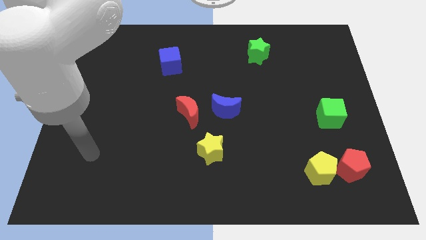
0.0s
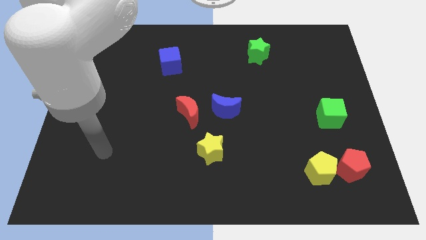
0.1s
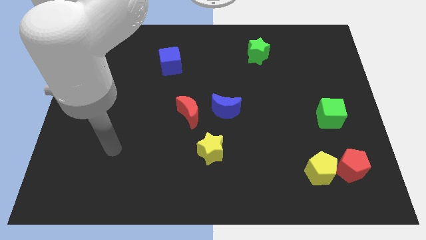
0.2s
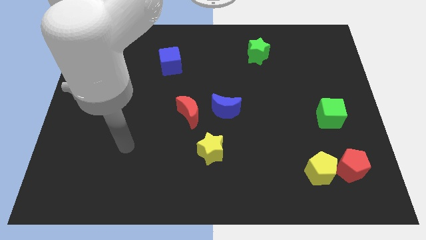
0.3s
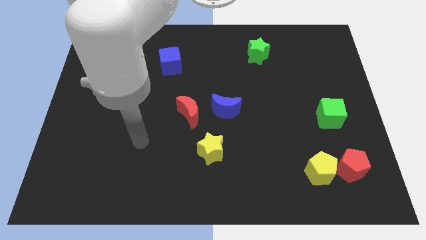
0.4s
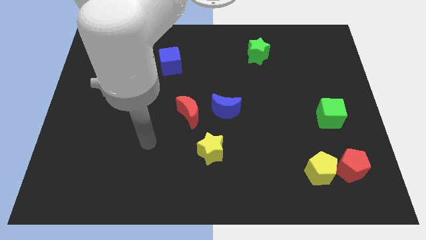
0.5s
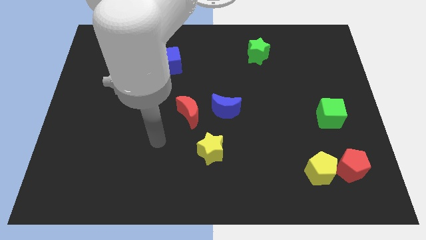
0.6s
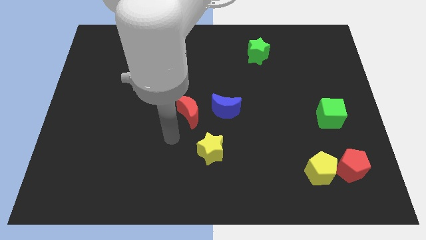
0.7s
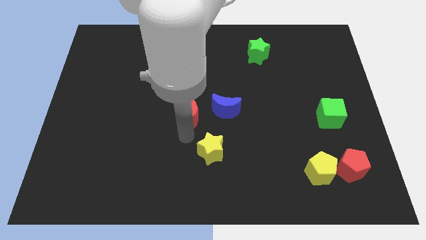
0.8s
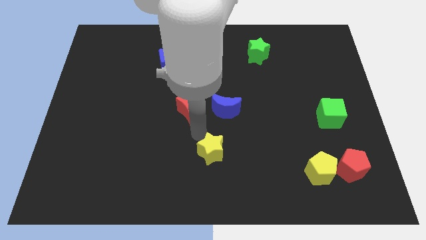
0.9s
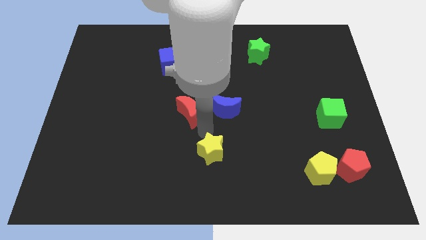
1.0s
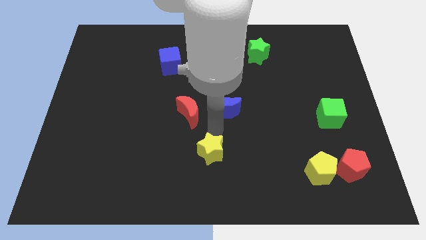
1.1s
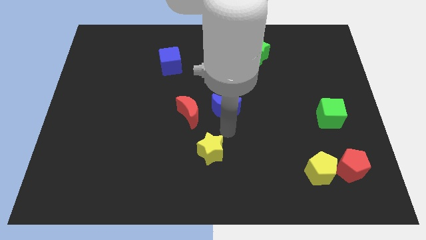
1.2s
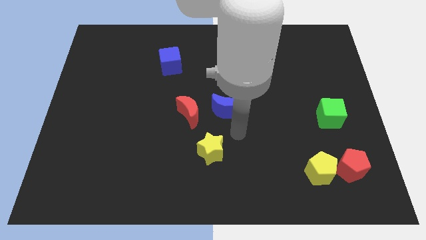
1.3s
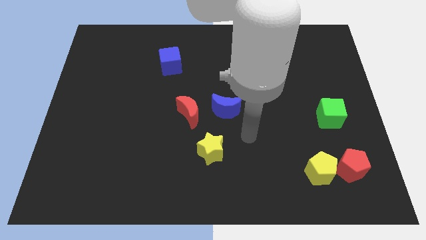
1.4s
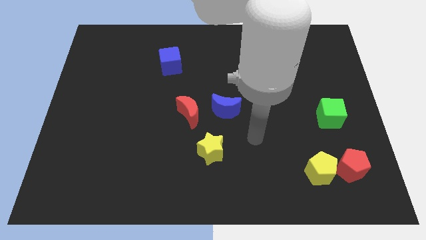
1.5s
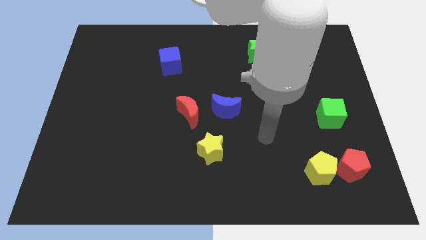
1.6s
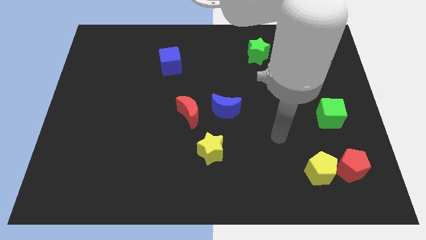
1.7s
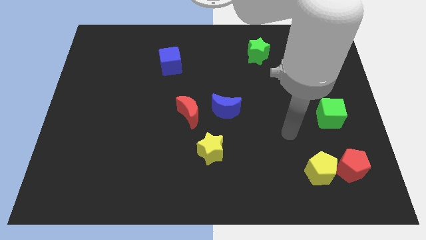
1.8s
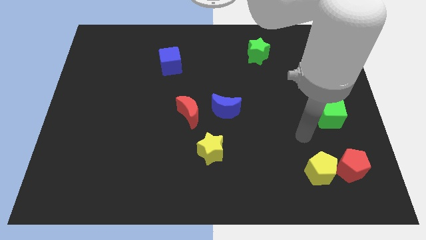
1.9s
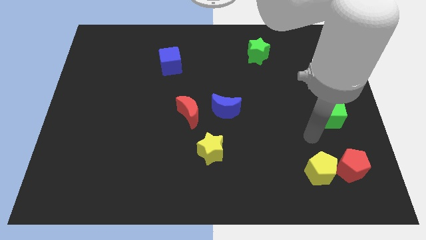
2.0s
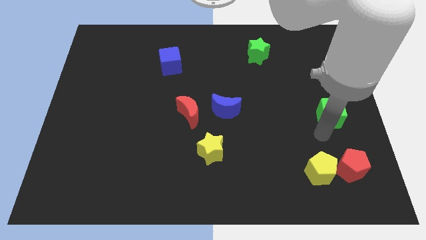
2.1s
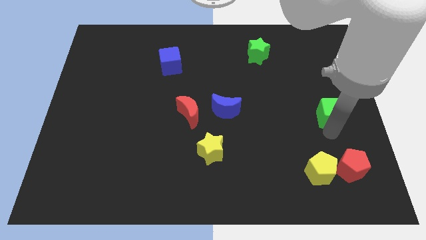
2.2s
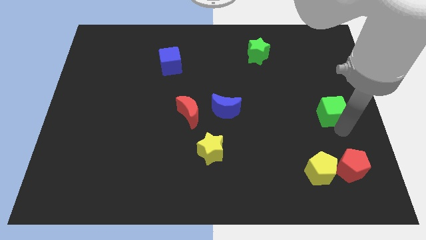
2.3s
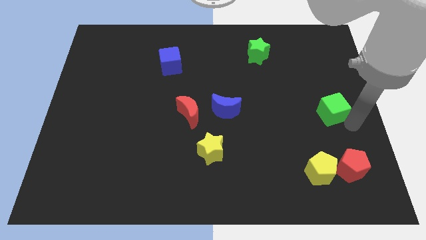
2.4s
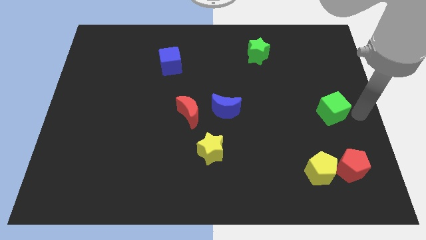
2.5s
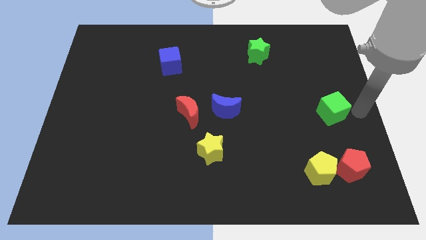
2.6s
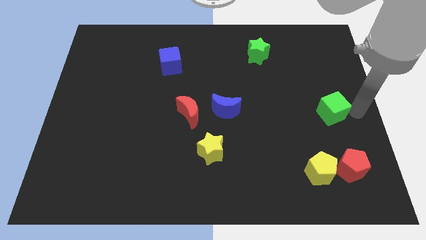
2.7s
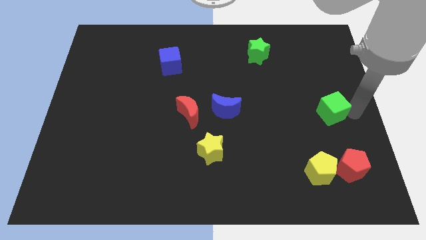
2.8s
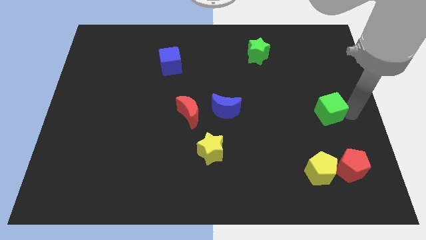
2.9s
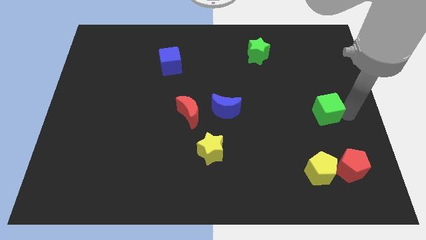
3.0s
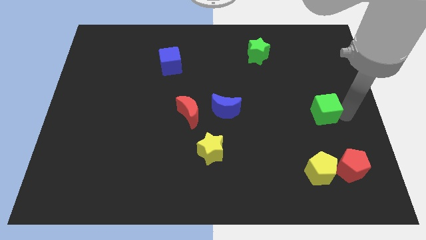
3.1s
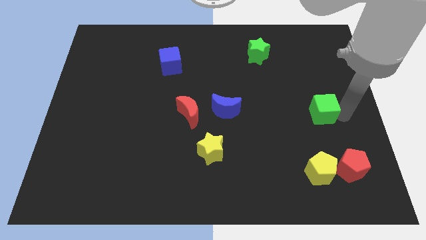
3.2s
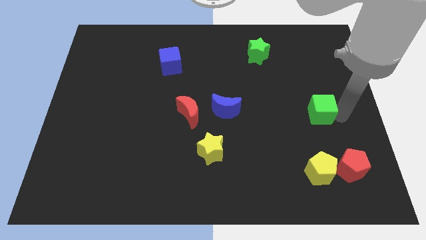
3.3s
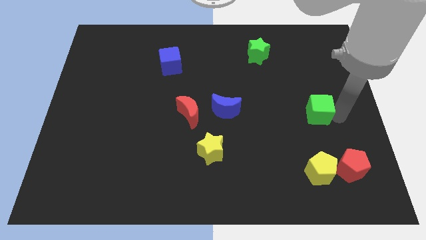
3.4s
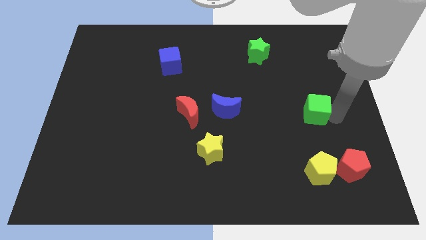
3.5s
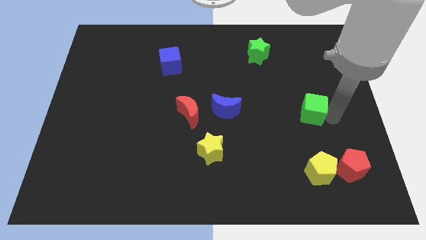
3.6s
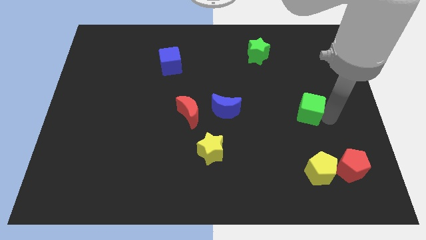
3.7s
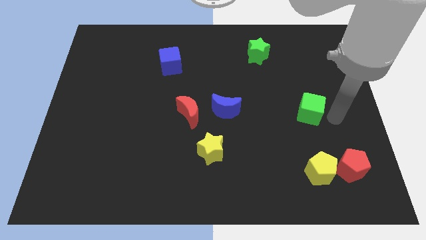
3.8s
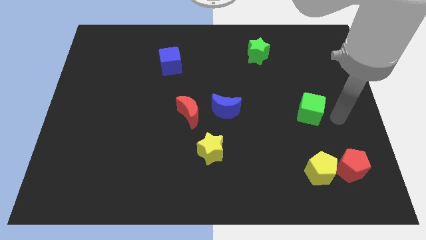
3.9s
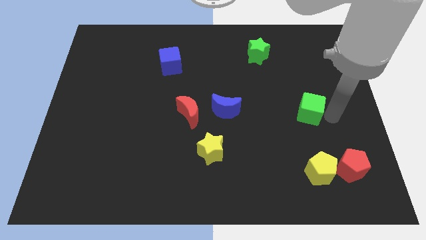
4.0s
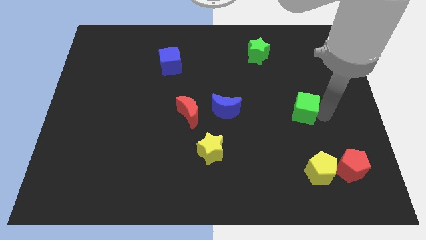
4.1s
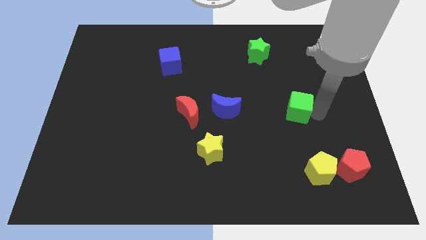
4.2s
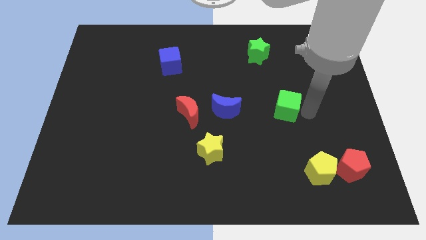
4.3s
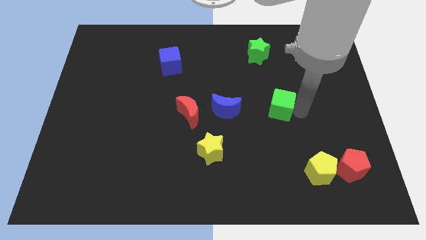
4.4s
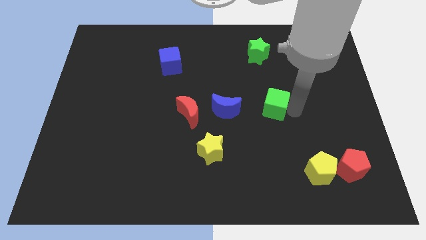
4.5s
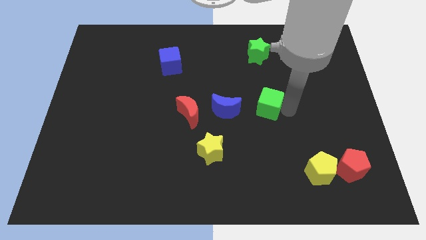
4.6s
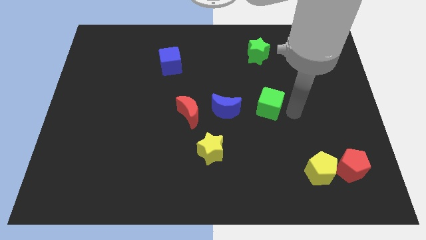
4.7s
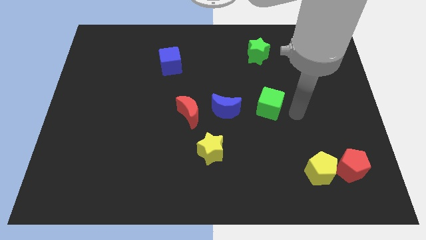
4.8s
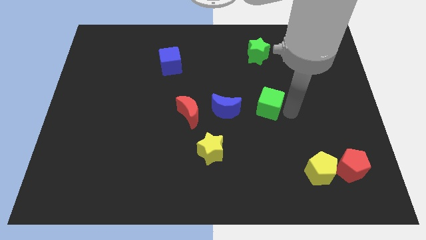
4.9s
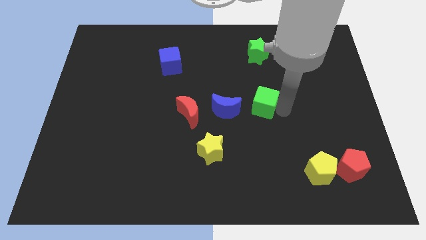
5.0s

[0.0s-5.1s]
slide the green cube to the middle

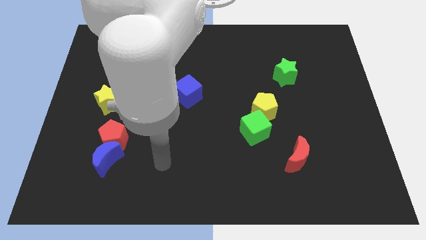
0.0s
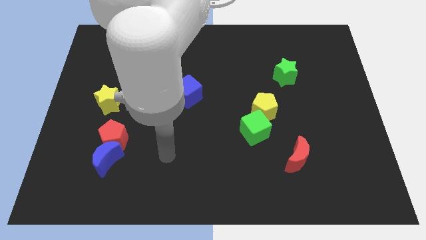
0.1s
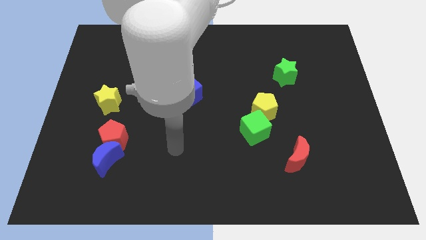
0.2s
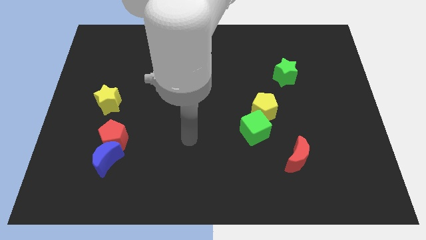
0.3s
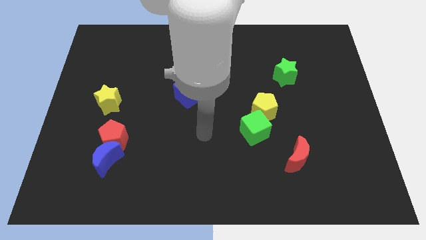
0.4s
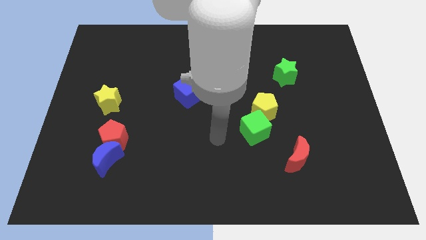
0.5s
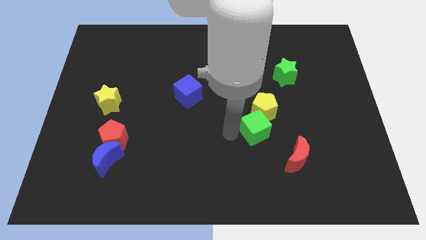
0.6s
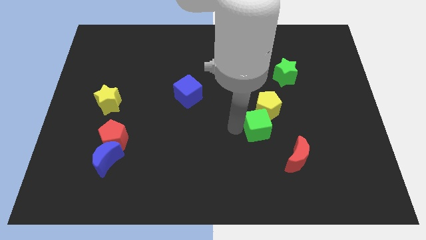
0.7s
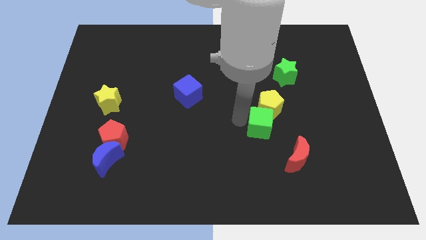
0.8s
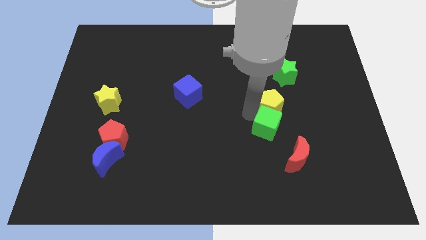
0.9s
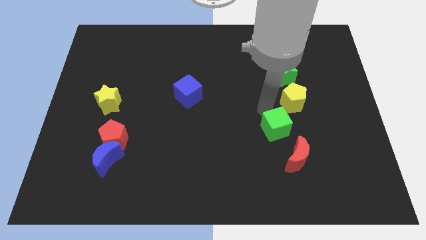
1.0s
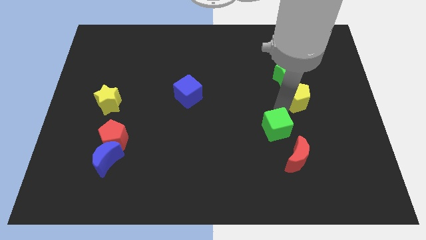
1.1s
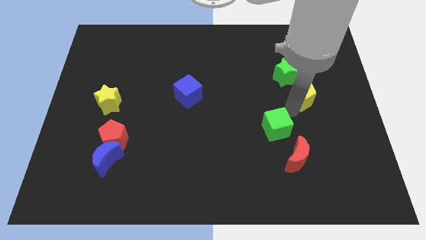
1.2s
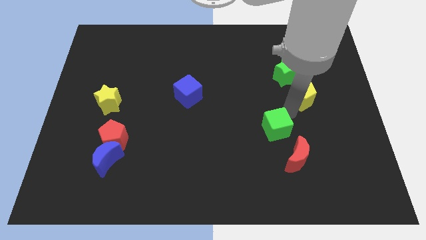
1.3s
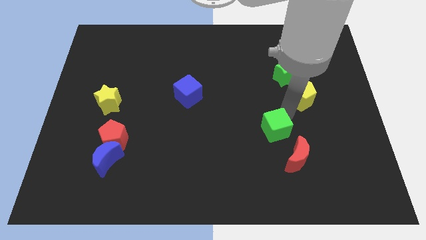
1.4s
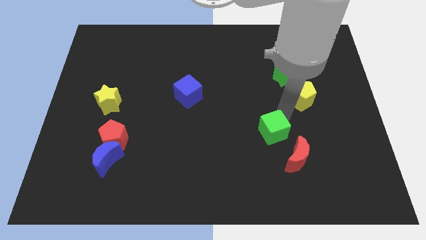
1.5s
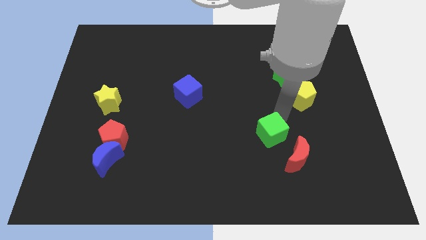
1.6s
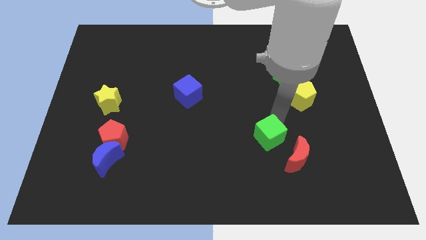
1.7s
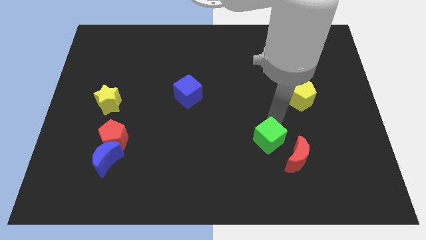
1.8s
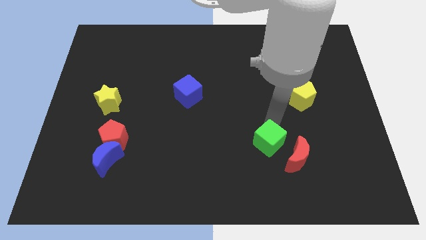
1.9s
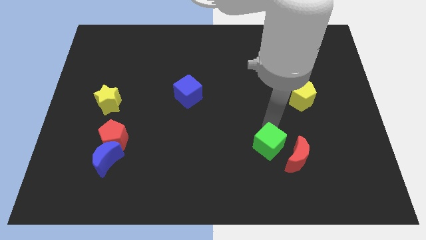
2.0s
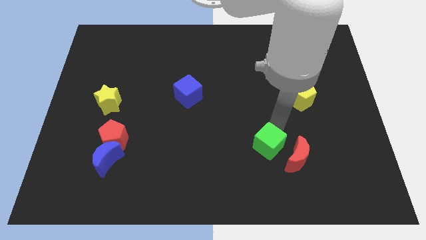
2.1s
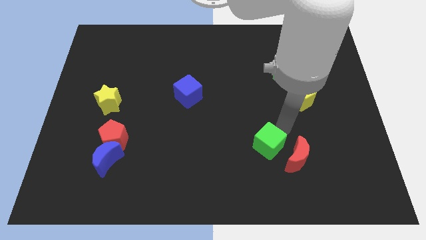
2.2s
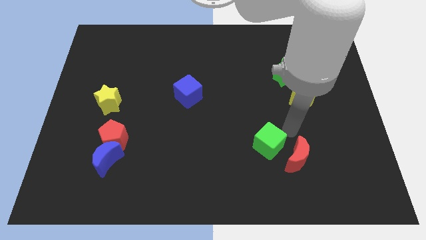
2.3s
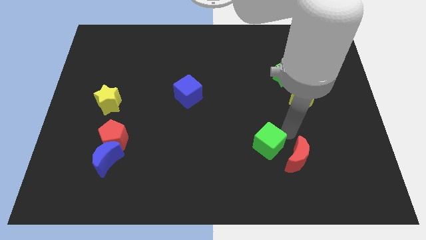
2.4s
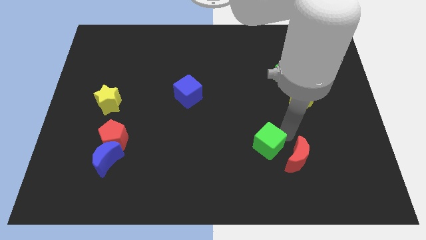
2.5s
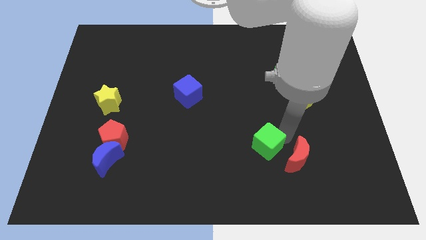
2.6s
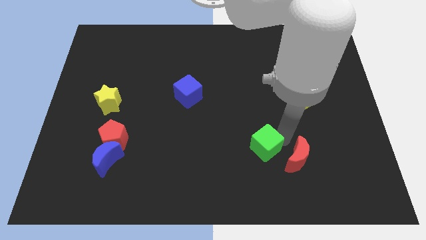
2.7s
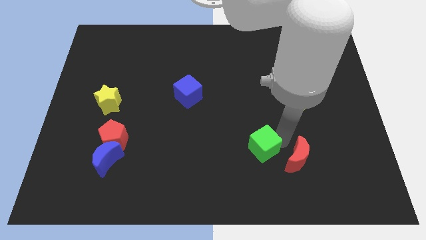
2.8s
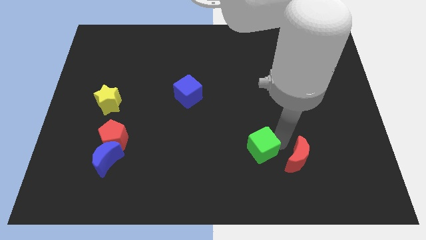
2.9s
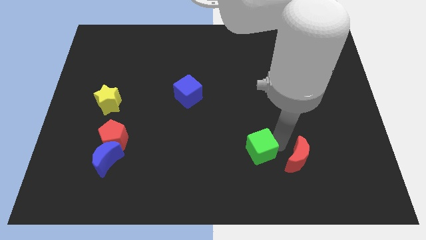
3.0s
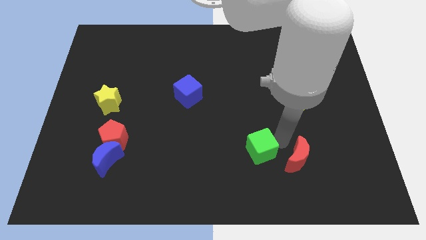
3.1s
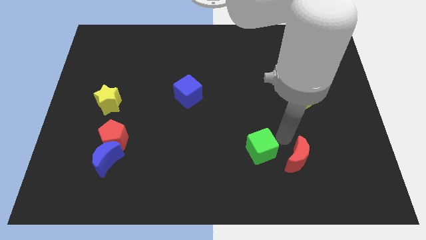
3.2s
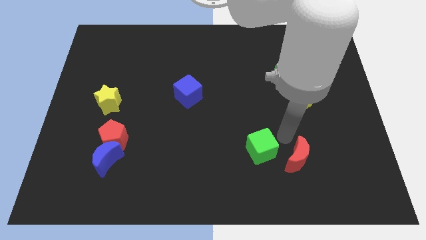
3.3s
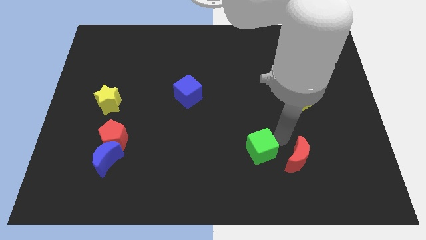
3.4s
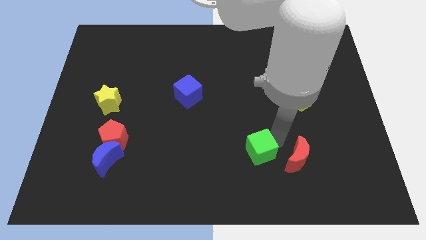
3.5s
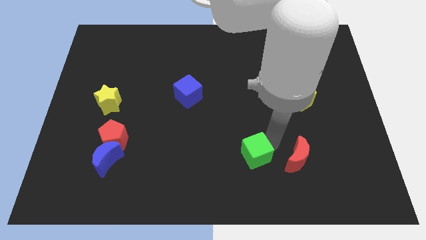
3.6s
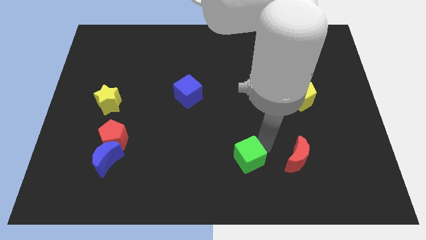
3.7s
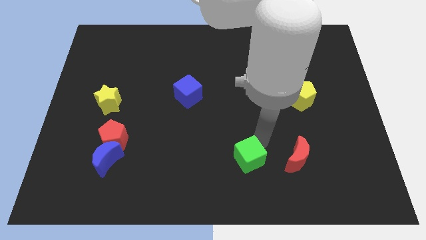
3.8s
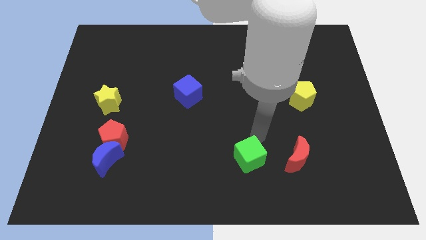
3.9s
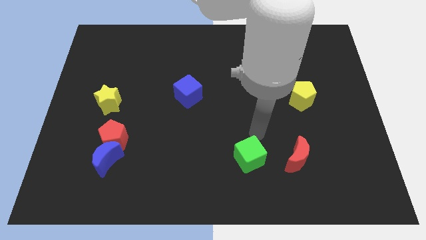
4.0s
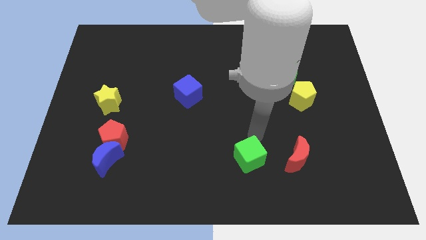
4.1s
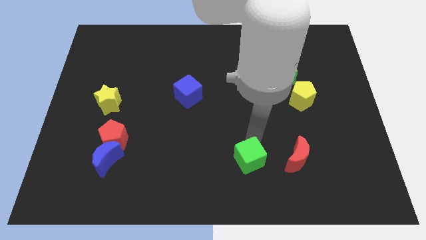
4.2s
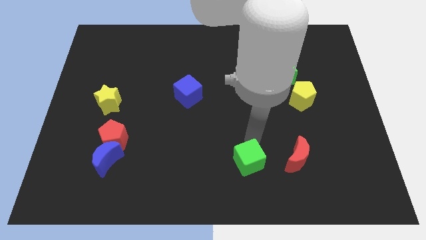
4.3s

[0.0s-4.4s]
push the green cube to the bottom
